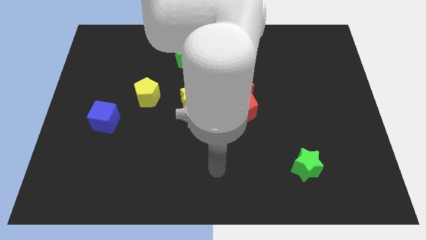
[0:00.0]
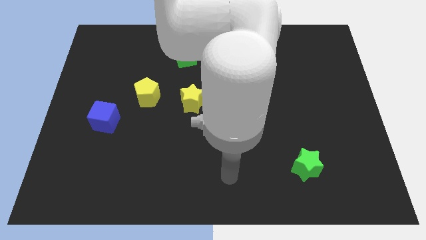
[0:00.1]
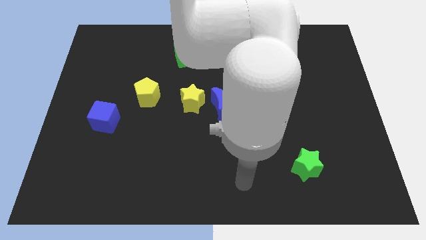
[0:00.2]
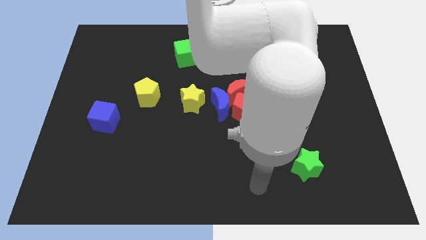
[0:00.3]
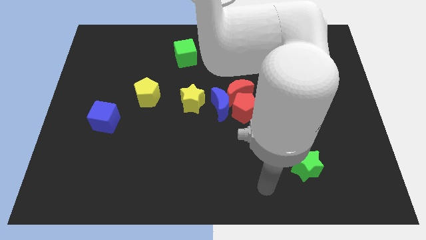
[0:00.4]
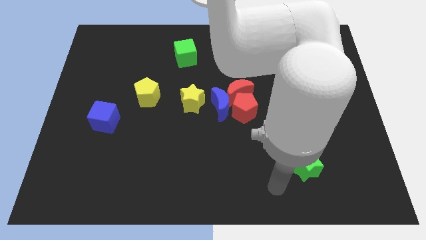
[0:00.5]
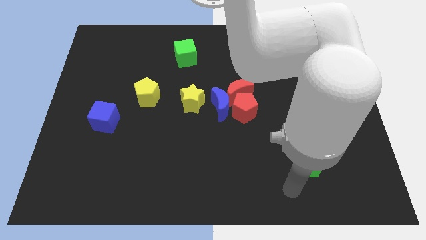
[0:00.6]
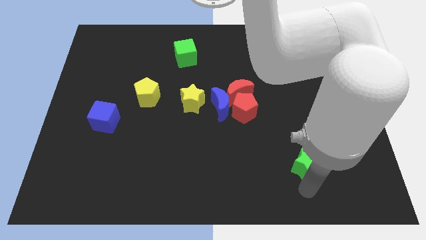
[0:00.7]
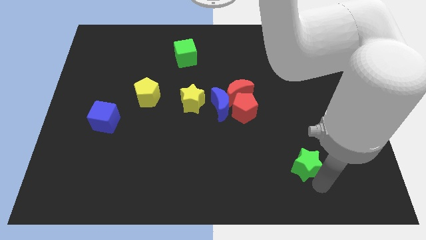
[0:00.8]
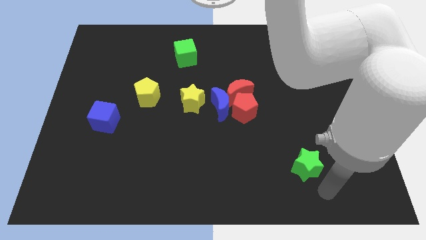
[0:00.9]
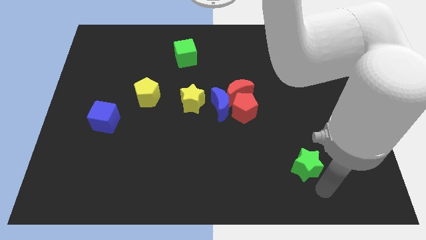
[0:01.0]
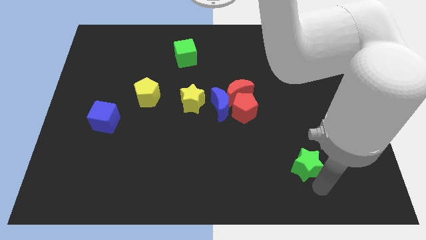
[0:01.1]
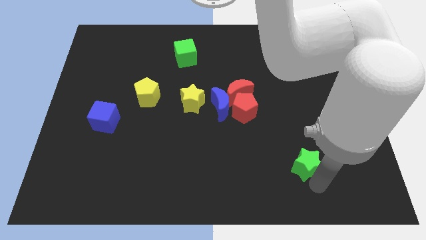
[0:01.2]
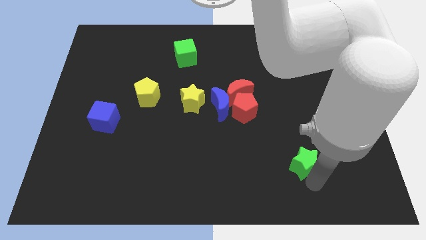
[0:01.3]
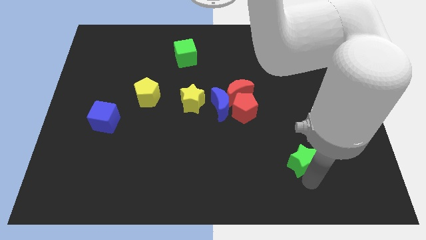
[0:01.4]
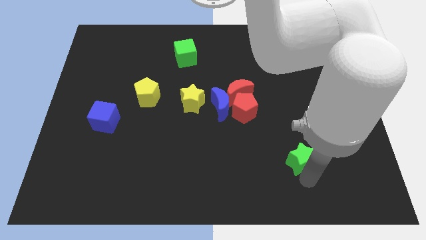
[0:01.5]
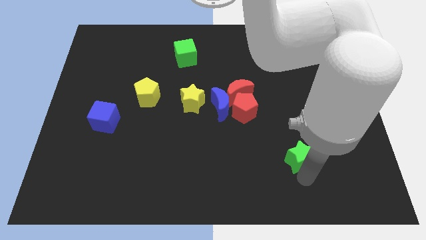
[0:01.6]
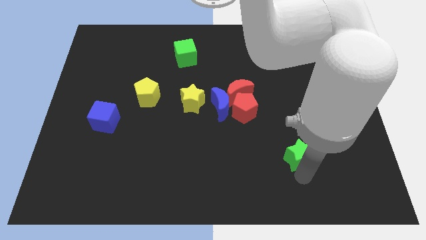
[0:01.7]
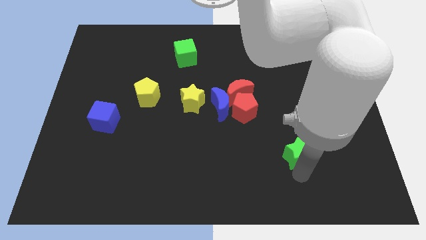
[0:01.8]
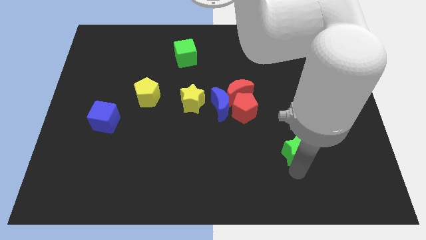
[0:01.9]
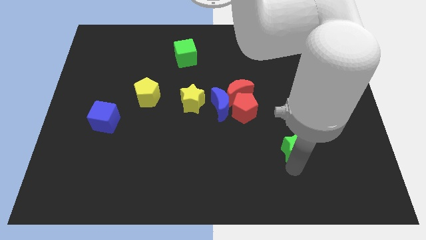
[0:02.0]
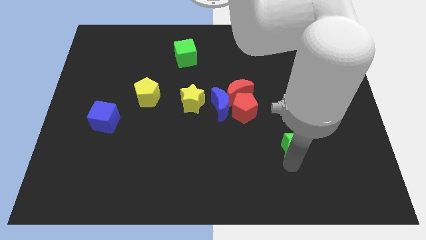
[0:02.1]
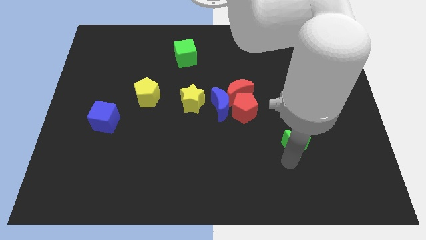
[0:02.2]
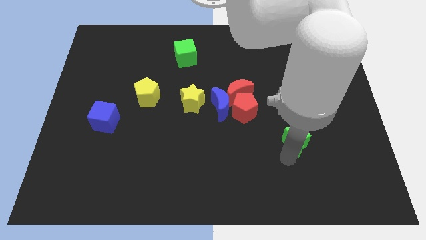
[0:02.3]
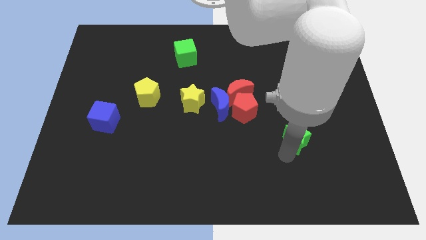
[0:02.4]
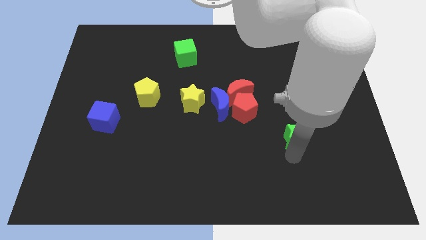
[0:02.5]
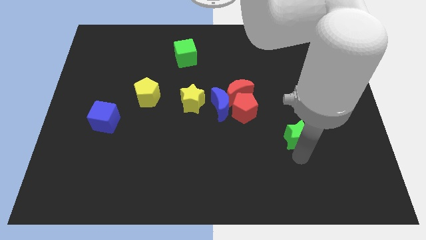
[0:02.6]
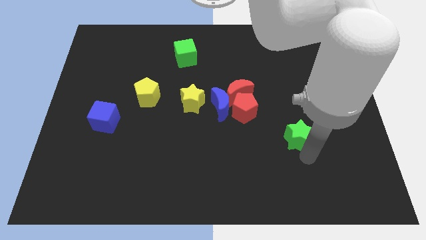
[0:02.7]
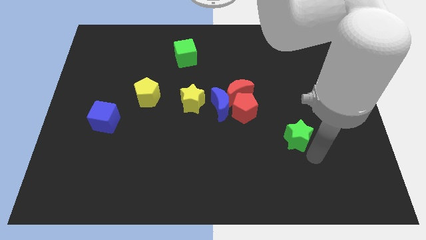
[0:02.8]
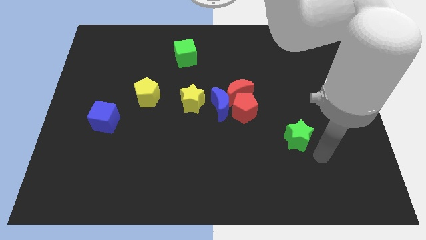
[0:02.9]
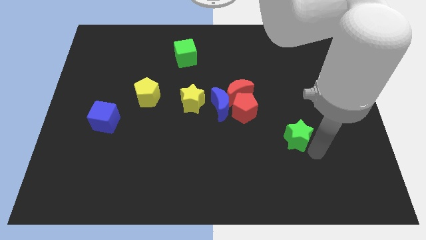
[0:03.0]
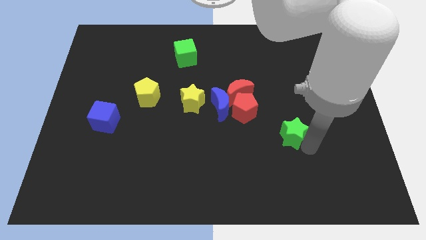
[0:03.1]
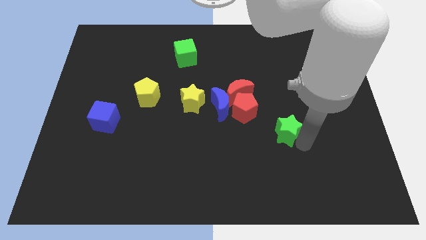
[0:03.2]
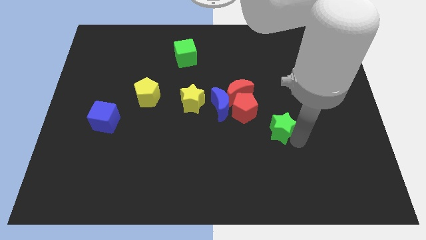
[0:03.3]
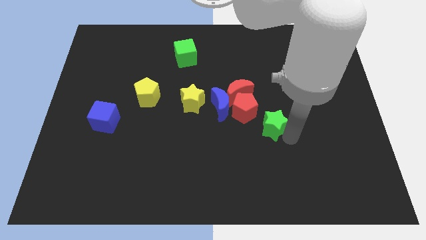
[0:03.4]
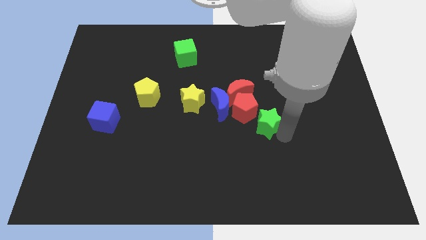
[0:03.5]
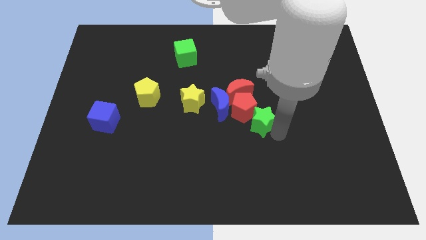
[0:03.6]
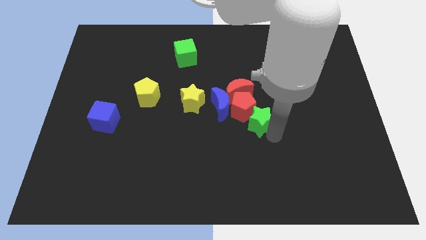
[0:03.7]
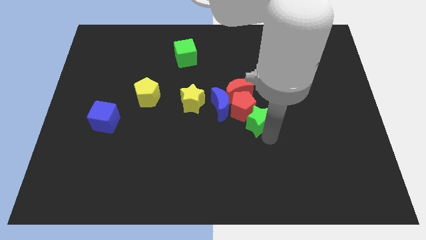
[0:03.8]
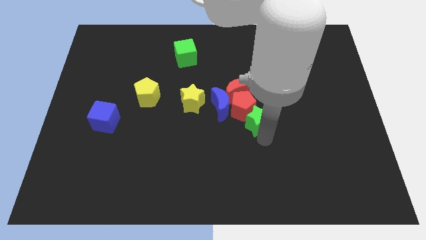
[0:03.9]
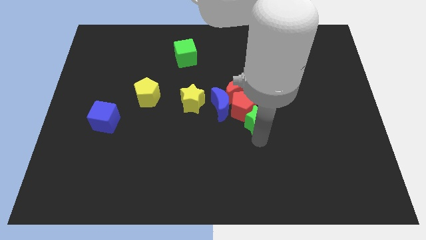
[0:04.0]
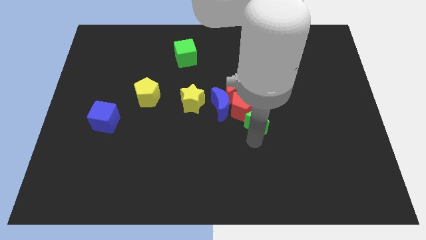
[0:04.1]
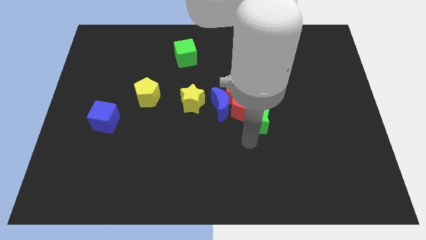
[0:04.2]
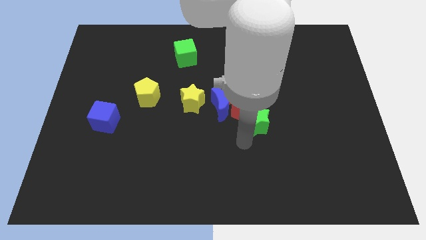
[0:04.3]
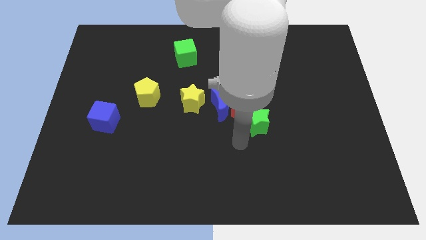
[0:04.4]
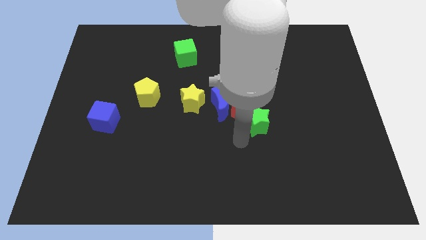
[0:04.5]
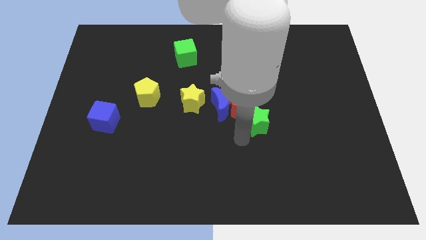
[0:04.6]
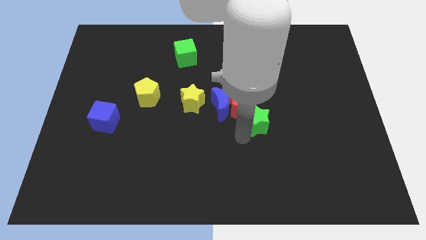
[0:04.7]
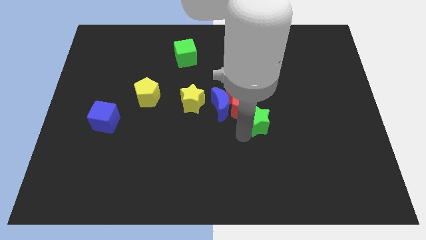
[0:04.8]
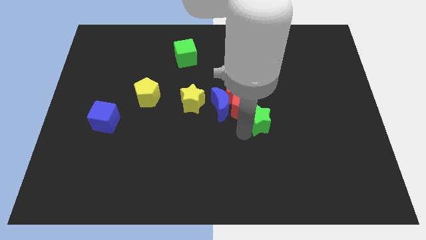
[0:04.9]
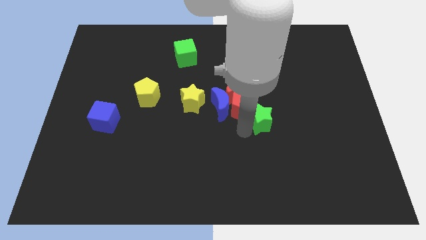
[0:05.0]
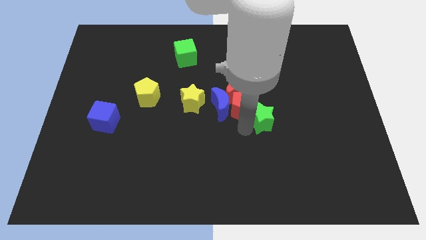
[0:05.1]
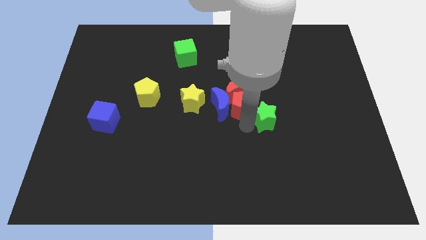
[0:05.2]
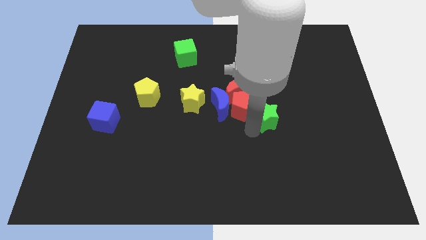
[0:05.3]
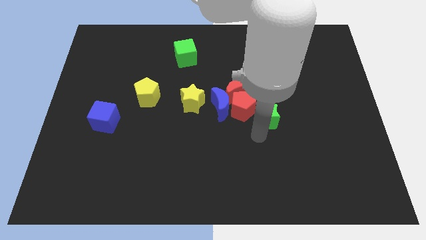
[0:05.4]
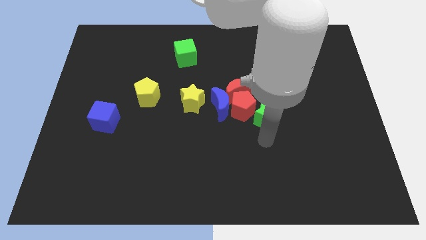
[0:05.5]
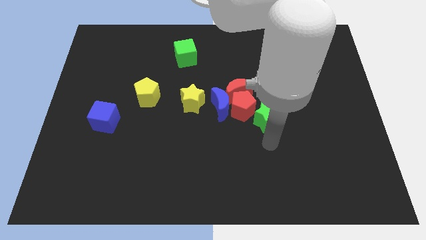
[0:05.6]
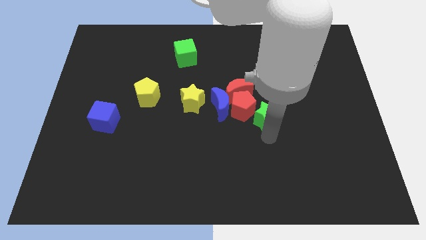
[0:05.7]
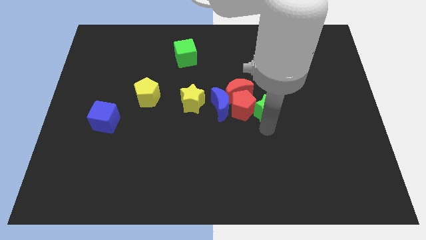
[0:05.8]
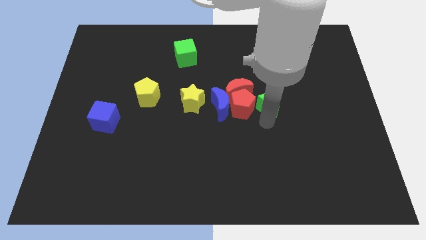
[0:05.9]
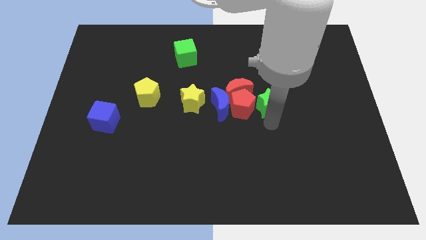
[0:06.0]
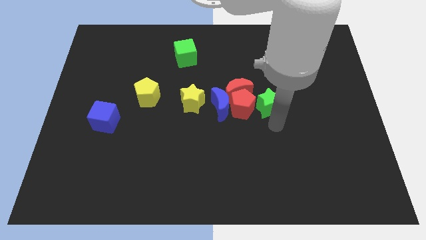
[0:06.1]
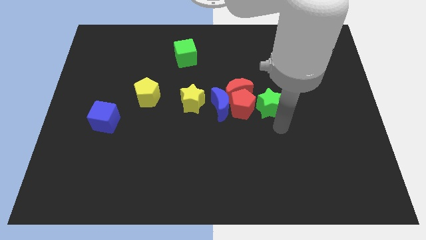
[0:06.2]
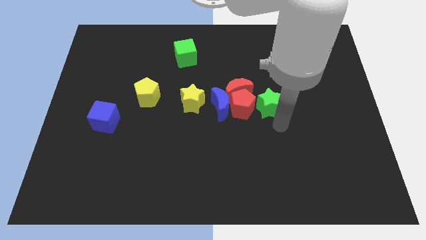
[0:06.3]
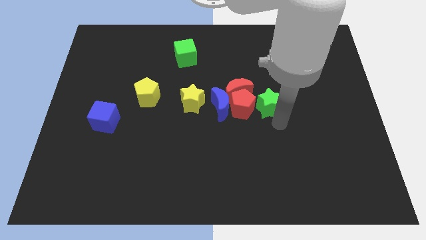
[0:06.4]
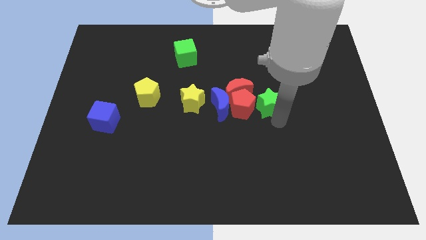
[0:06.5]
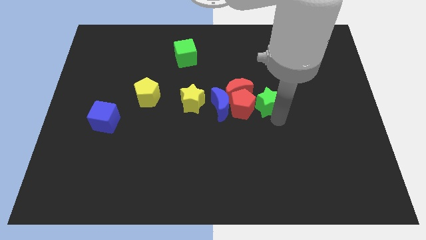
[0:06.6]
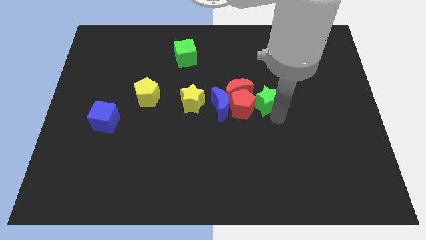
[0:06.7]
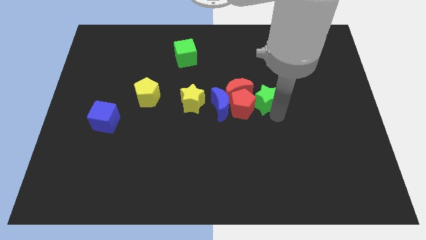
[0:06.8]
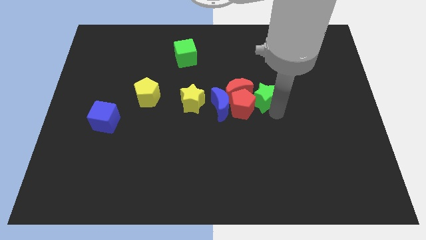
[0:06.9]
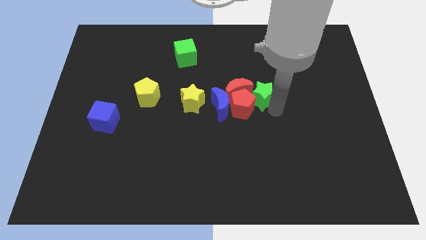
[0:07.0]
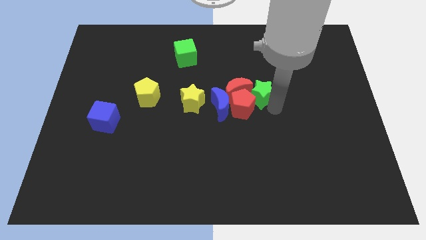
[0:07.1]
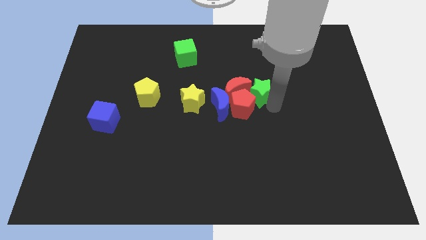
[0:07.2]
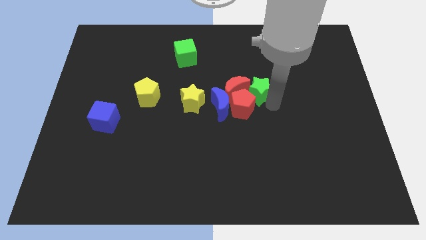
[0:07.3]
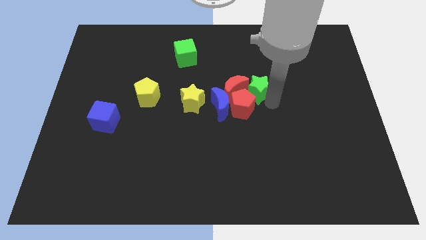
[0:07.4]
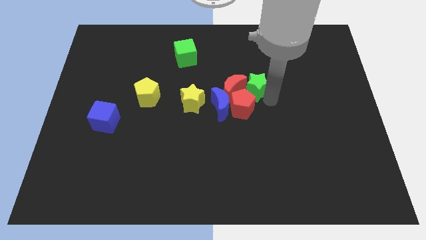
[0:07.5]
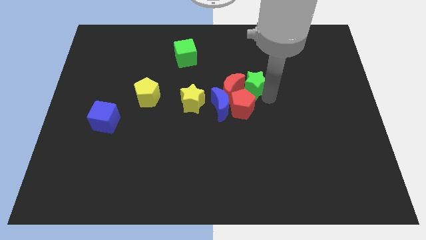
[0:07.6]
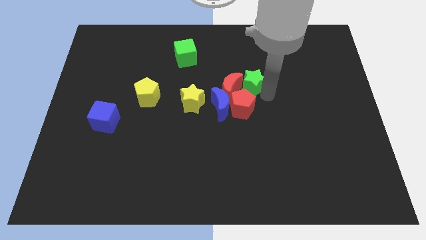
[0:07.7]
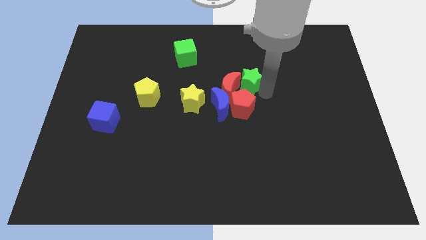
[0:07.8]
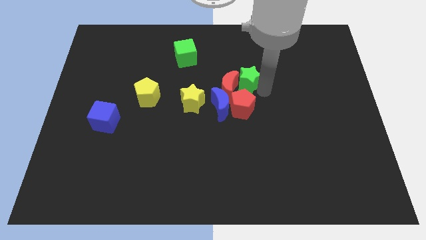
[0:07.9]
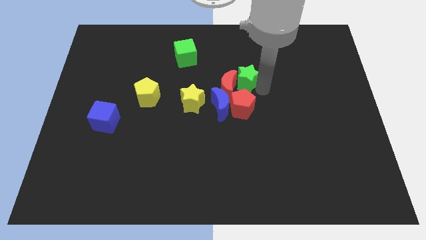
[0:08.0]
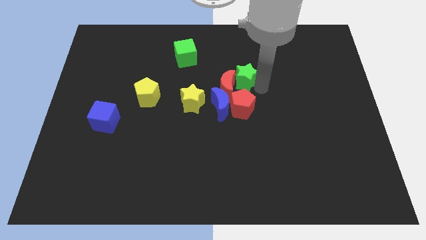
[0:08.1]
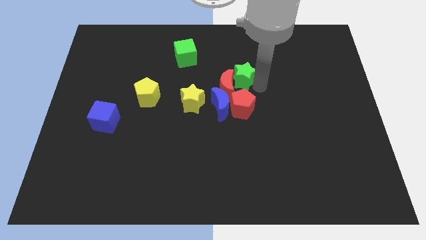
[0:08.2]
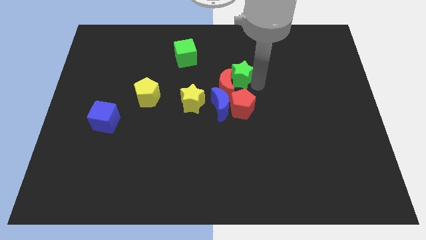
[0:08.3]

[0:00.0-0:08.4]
put the green star to the top side of the blue moon
